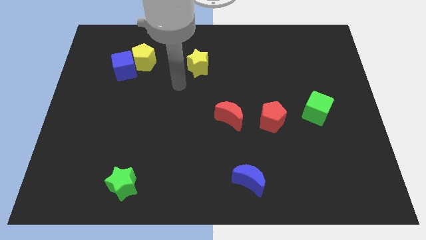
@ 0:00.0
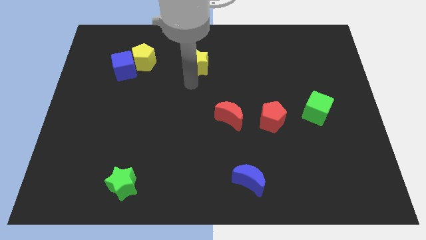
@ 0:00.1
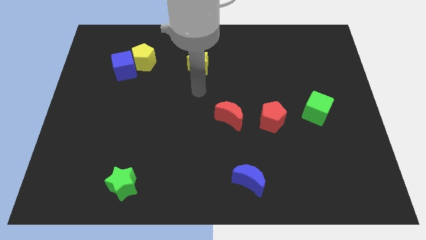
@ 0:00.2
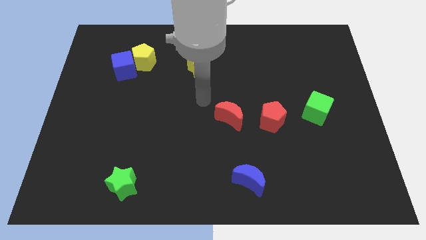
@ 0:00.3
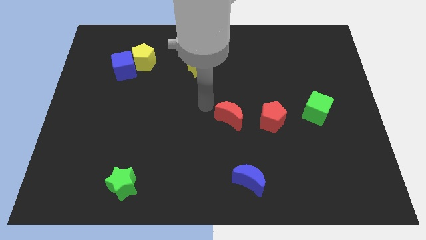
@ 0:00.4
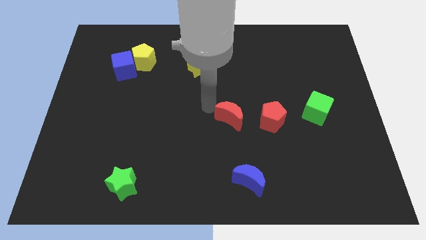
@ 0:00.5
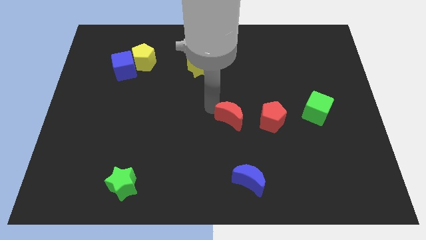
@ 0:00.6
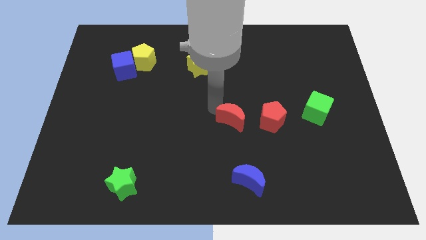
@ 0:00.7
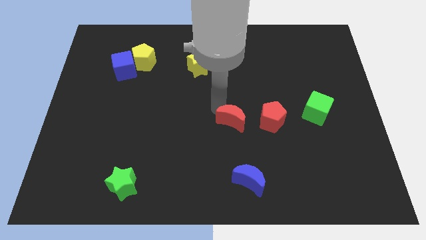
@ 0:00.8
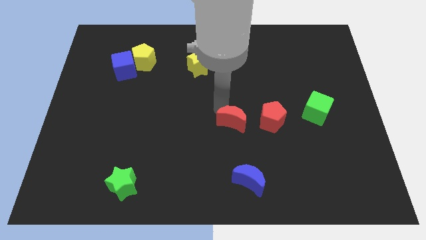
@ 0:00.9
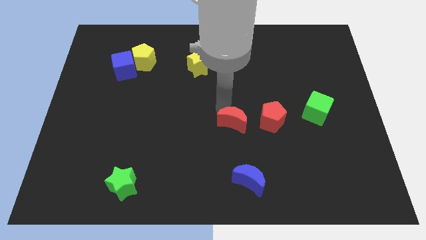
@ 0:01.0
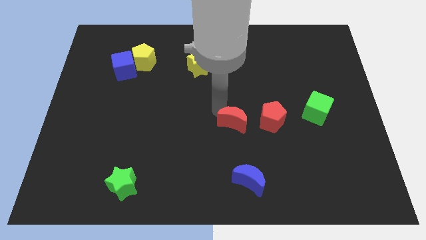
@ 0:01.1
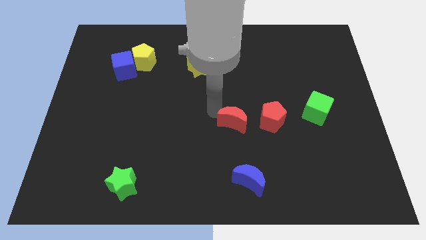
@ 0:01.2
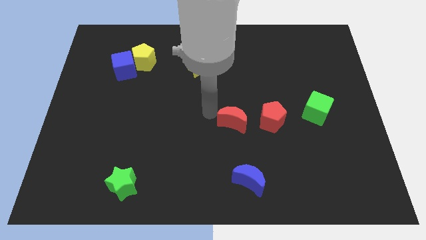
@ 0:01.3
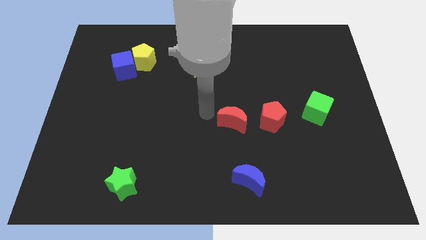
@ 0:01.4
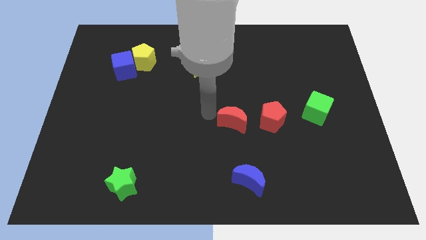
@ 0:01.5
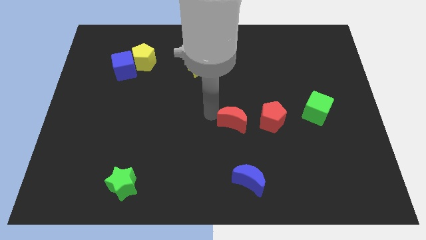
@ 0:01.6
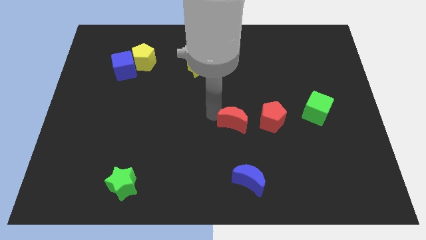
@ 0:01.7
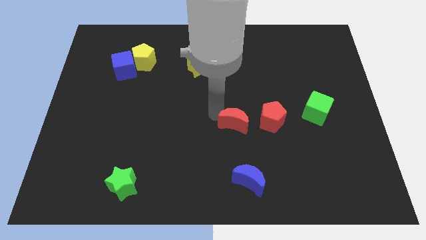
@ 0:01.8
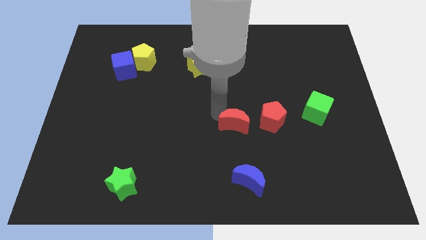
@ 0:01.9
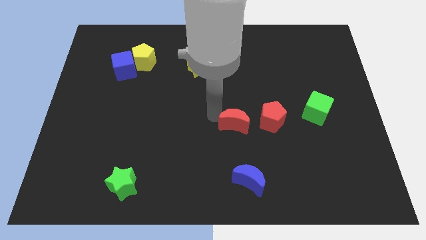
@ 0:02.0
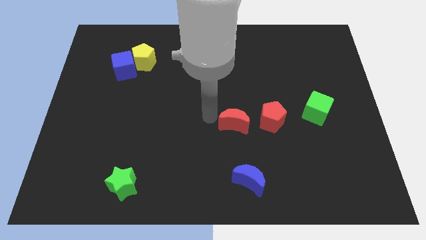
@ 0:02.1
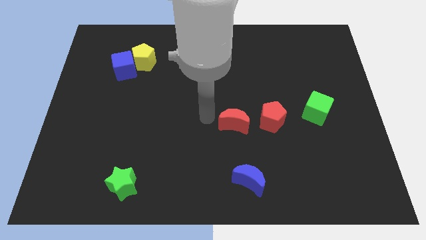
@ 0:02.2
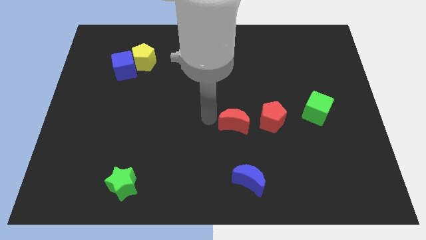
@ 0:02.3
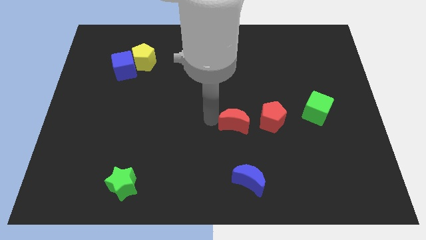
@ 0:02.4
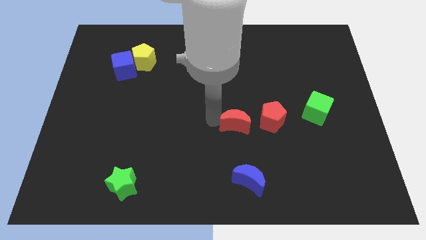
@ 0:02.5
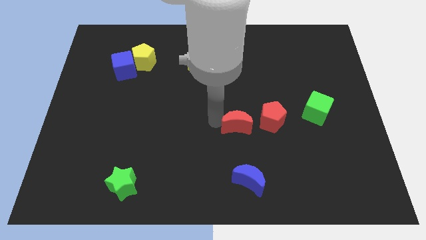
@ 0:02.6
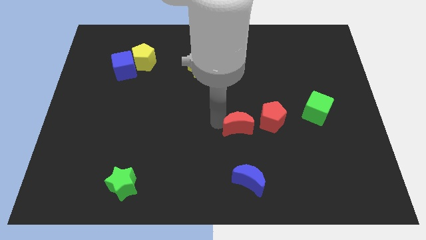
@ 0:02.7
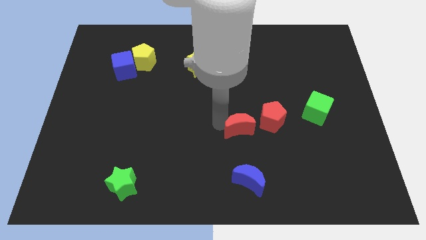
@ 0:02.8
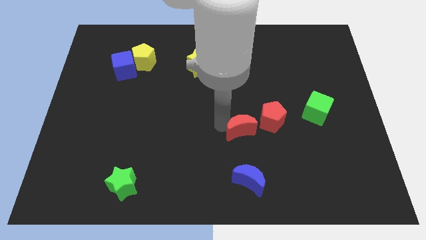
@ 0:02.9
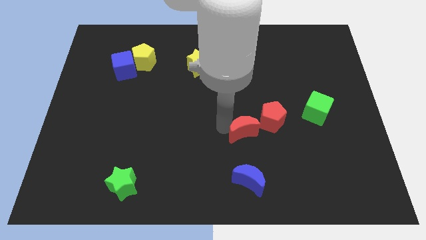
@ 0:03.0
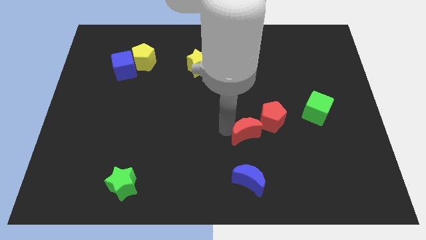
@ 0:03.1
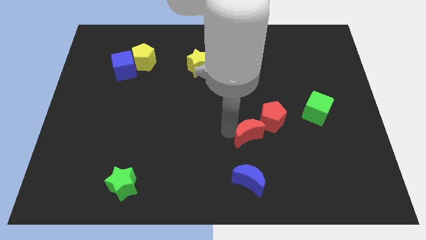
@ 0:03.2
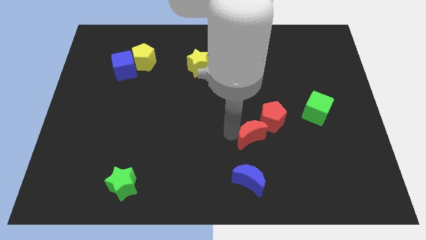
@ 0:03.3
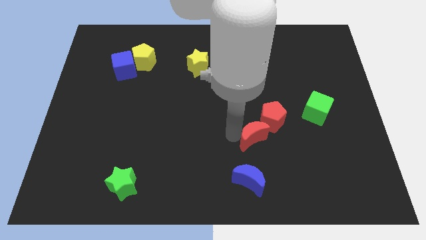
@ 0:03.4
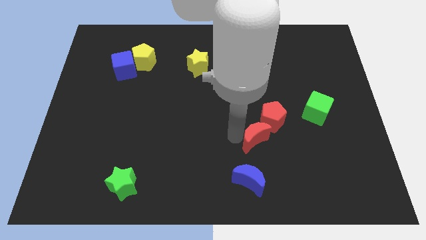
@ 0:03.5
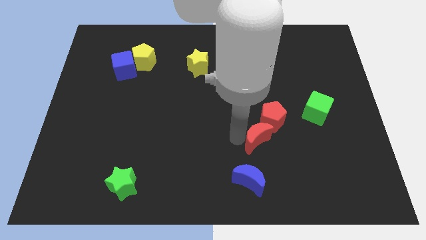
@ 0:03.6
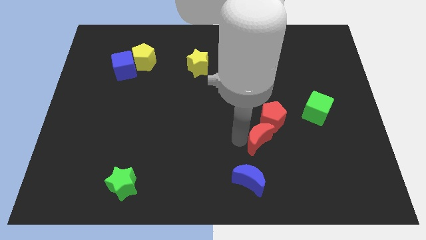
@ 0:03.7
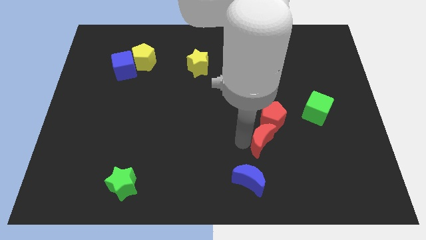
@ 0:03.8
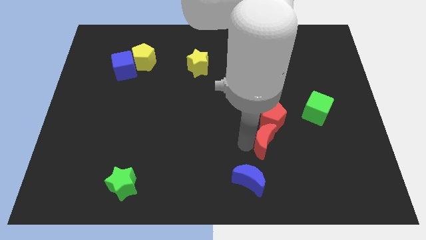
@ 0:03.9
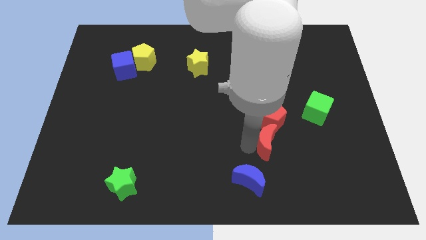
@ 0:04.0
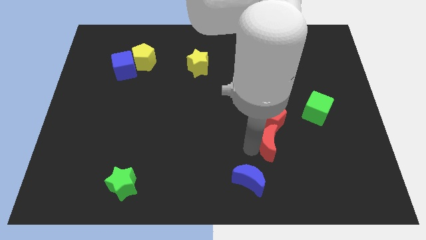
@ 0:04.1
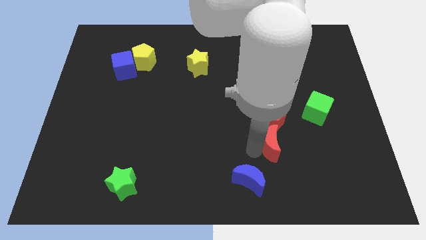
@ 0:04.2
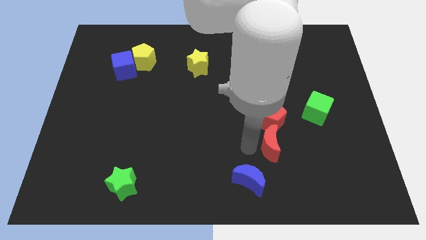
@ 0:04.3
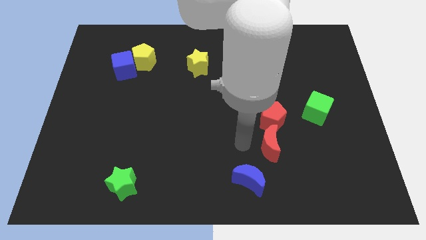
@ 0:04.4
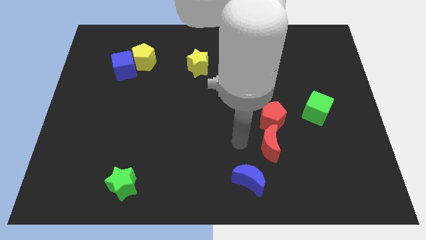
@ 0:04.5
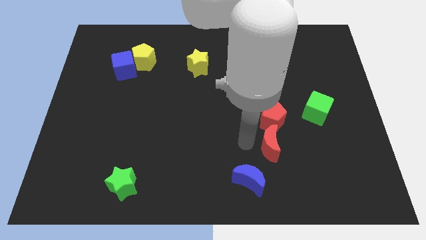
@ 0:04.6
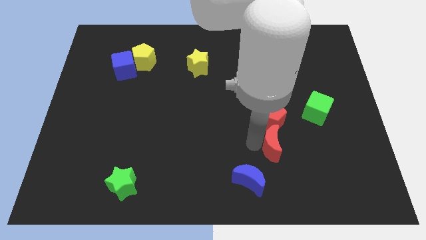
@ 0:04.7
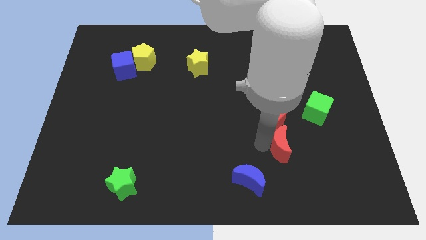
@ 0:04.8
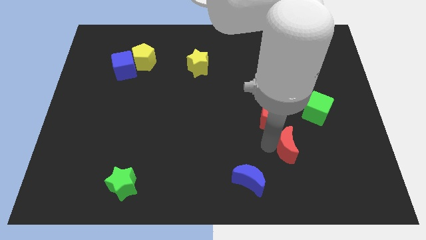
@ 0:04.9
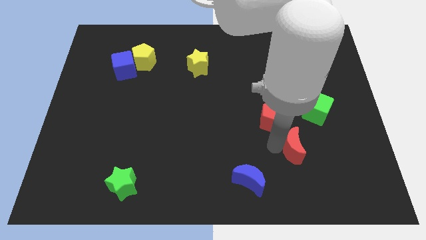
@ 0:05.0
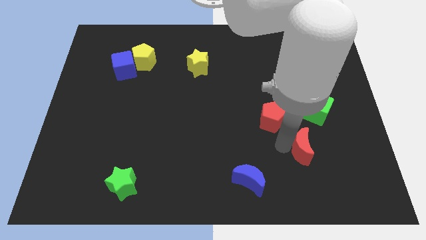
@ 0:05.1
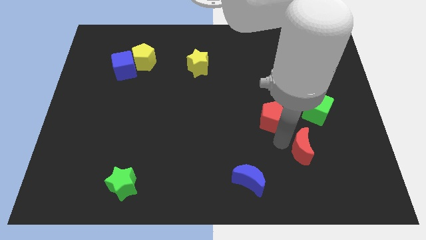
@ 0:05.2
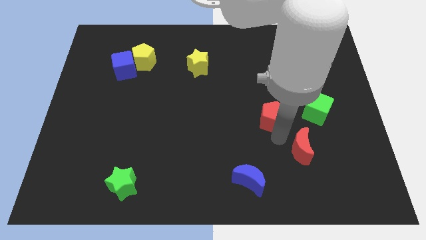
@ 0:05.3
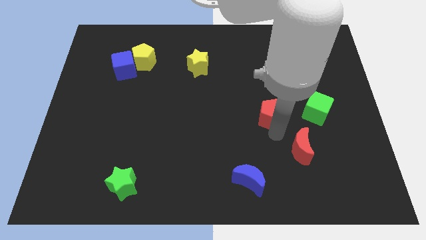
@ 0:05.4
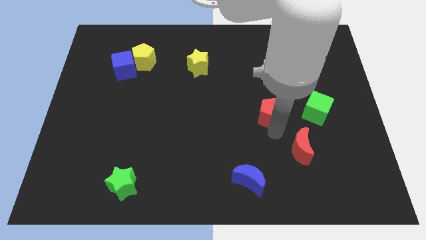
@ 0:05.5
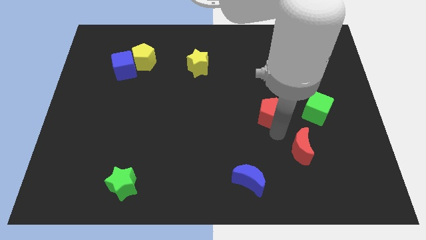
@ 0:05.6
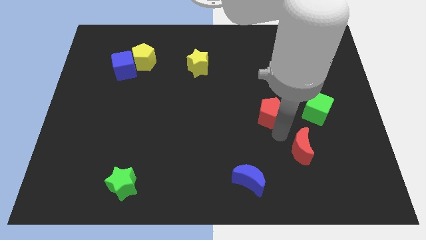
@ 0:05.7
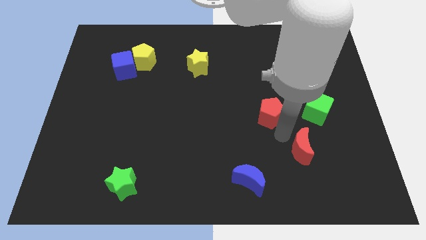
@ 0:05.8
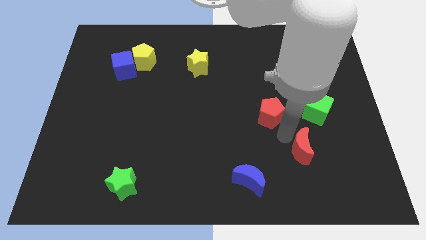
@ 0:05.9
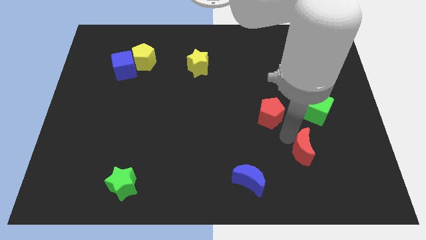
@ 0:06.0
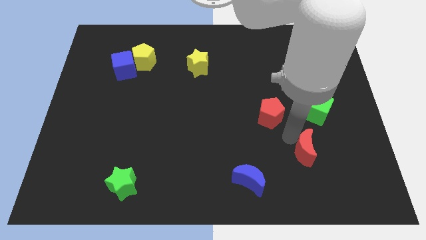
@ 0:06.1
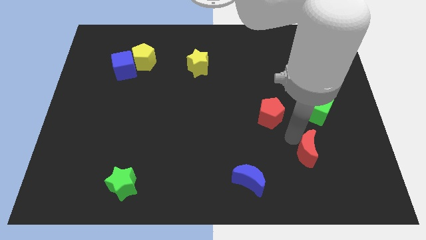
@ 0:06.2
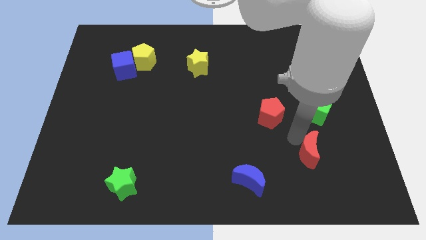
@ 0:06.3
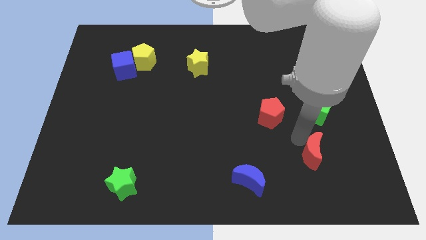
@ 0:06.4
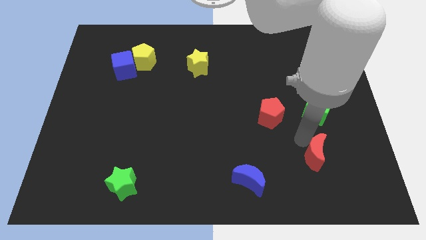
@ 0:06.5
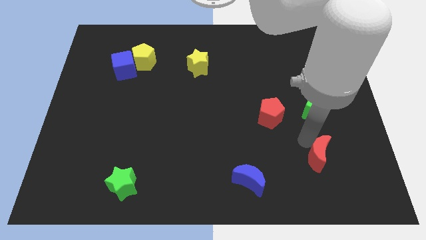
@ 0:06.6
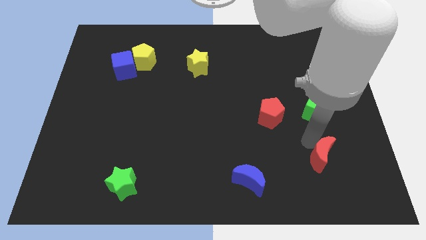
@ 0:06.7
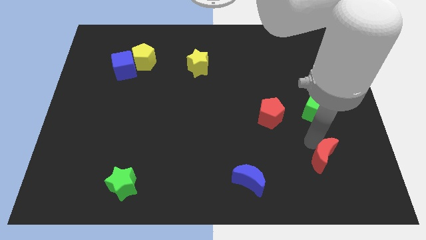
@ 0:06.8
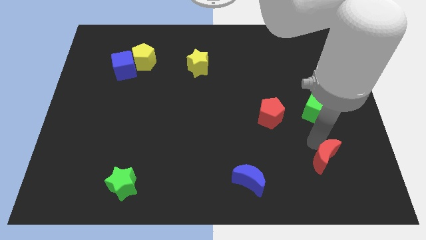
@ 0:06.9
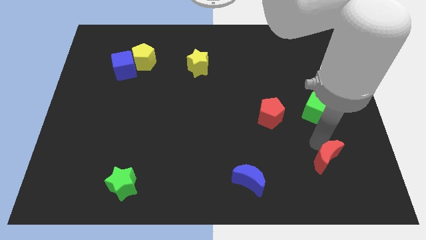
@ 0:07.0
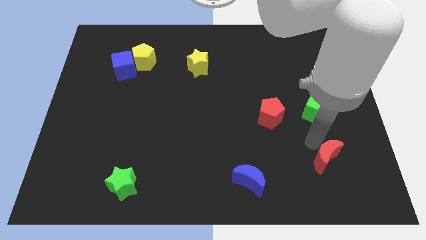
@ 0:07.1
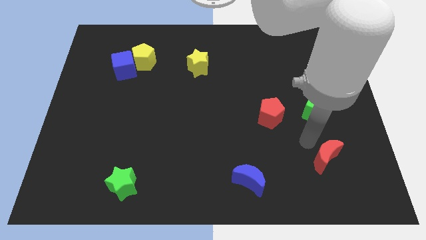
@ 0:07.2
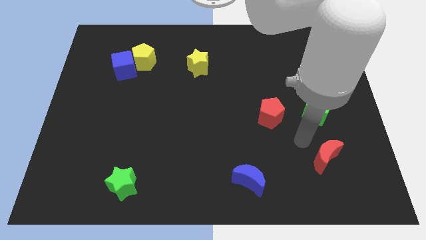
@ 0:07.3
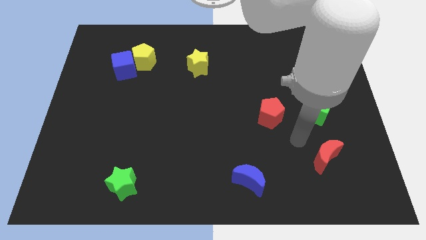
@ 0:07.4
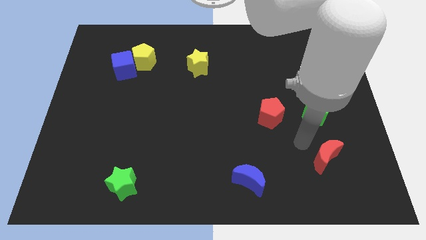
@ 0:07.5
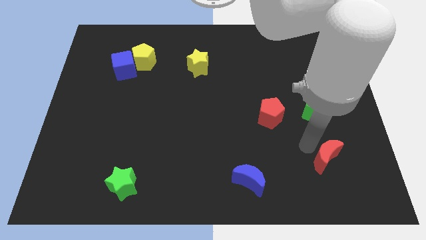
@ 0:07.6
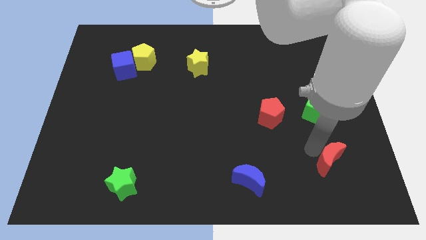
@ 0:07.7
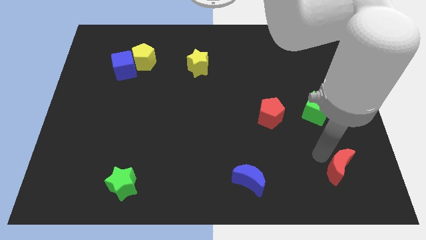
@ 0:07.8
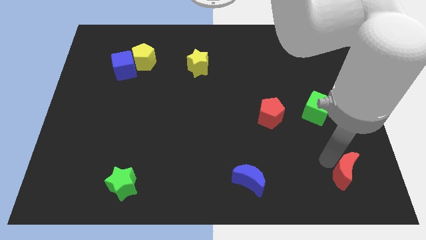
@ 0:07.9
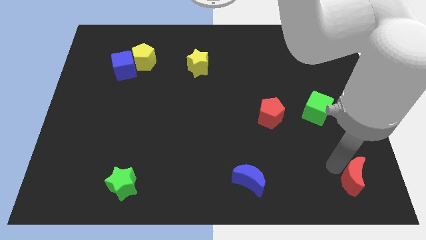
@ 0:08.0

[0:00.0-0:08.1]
push the red moon to the bottom right
